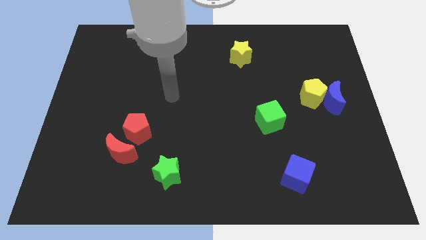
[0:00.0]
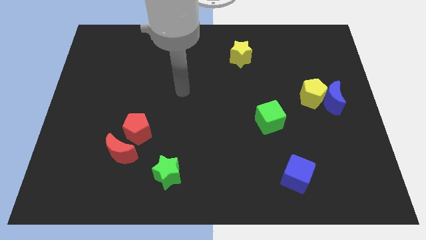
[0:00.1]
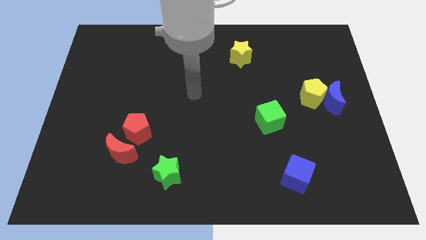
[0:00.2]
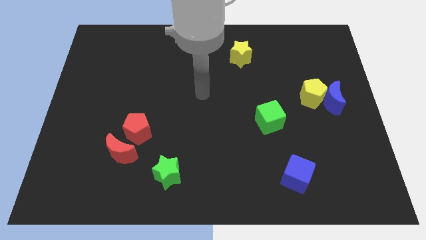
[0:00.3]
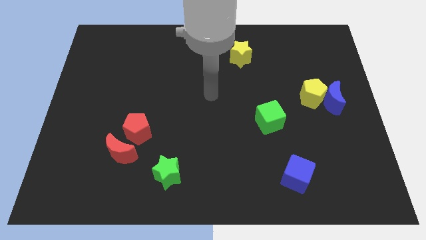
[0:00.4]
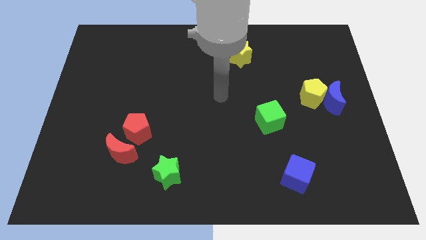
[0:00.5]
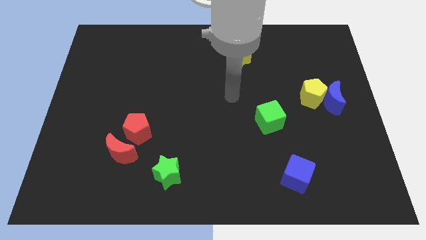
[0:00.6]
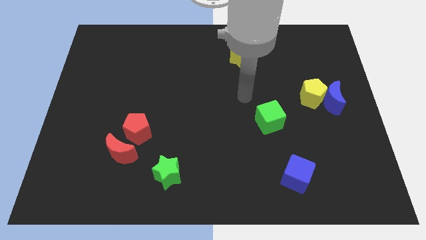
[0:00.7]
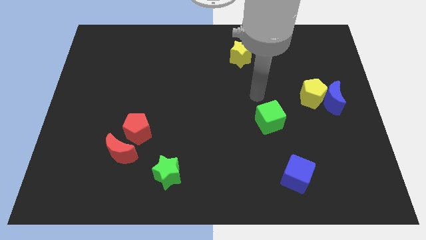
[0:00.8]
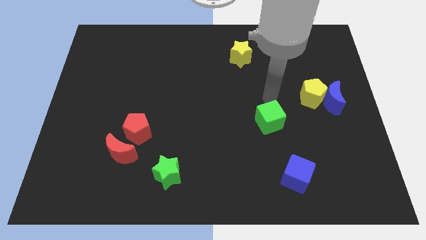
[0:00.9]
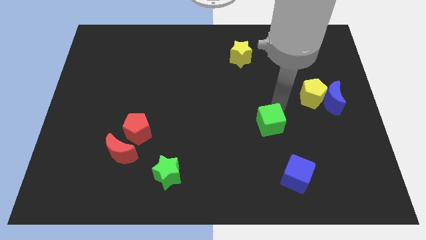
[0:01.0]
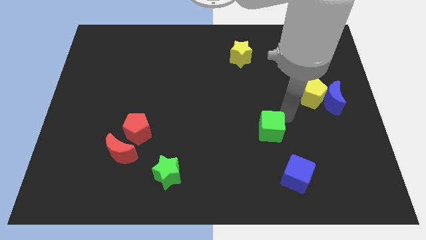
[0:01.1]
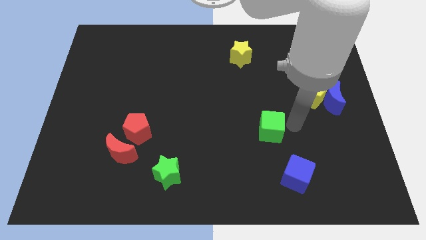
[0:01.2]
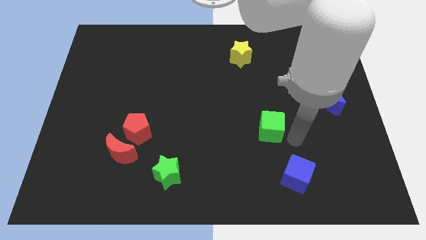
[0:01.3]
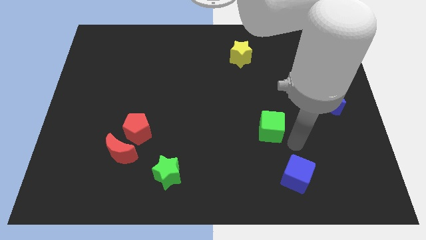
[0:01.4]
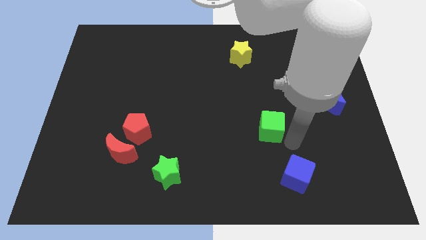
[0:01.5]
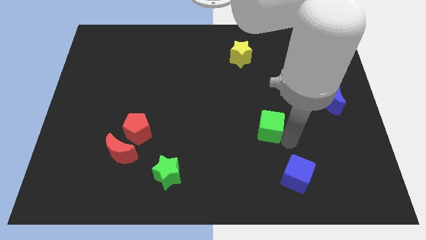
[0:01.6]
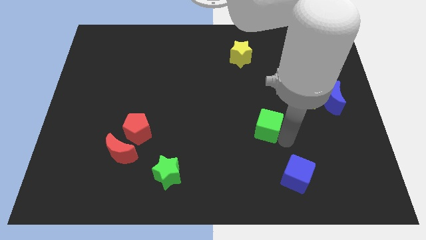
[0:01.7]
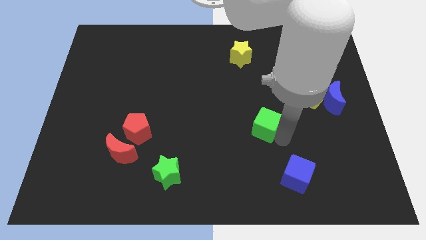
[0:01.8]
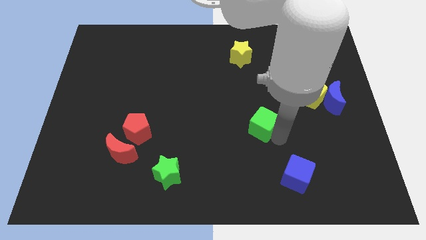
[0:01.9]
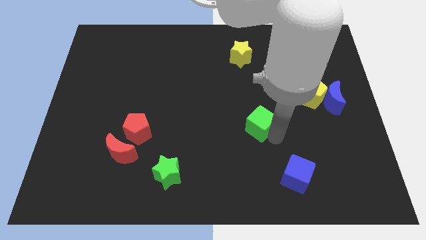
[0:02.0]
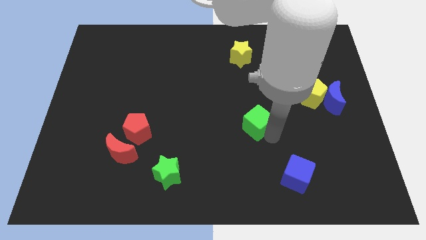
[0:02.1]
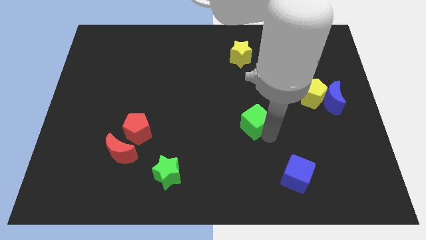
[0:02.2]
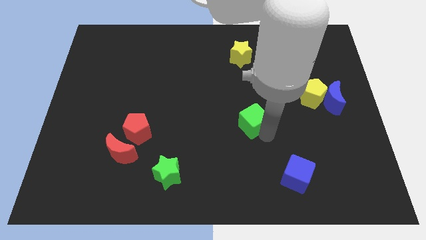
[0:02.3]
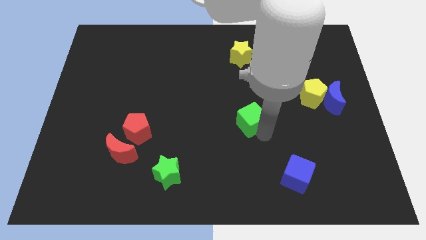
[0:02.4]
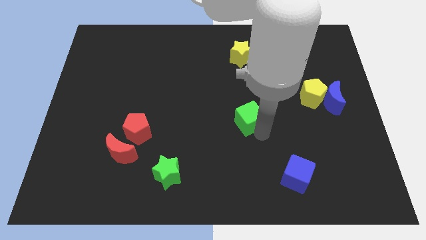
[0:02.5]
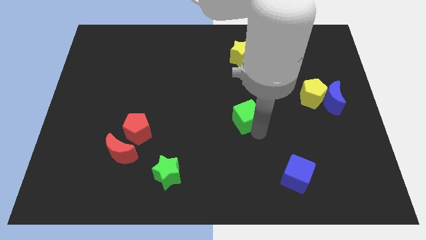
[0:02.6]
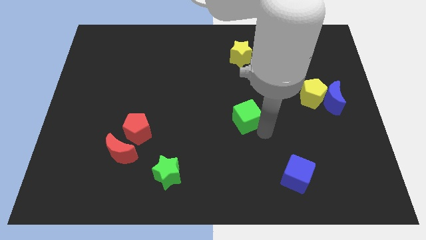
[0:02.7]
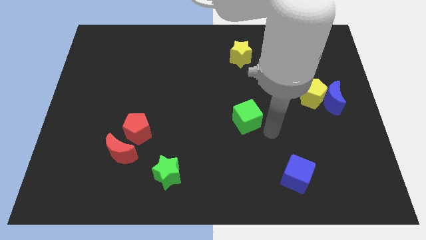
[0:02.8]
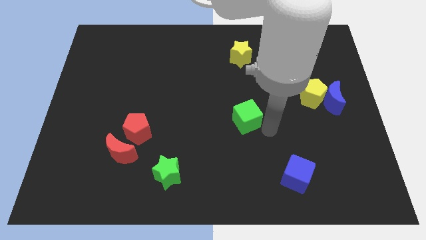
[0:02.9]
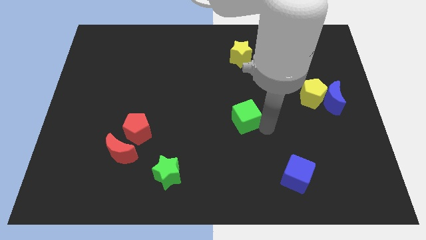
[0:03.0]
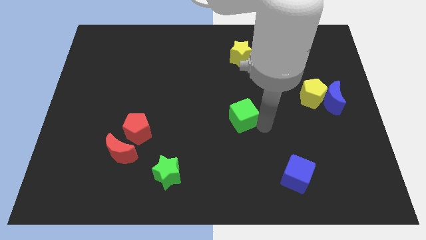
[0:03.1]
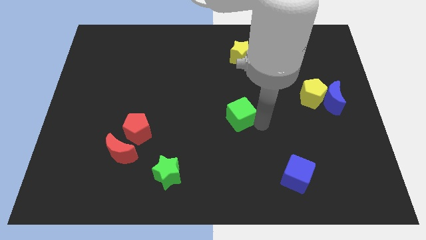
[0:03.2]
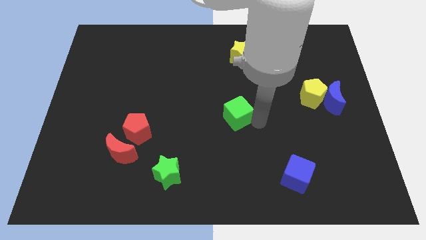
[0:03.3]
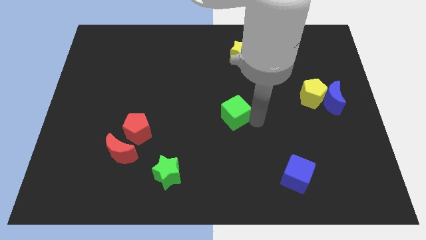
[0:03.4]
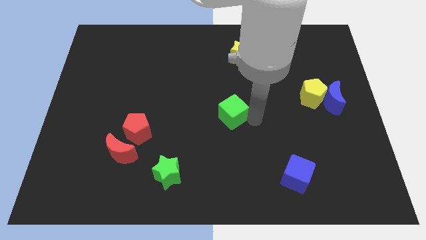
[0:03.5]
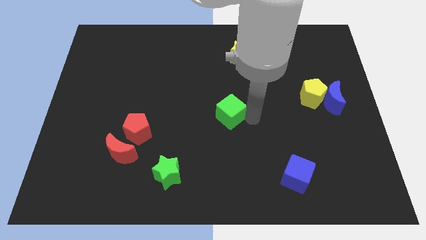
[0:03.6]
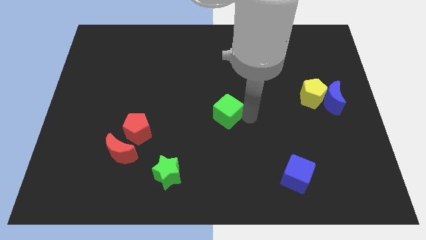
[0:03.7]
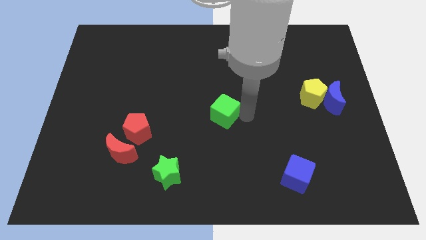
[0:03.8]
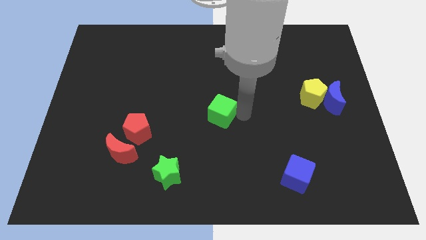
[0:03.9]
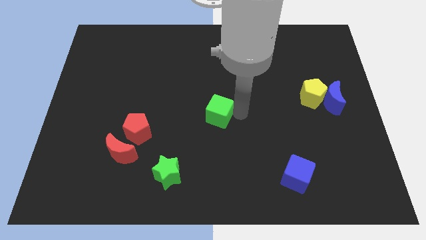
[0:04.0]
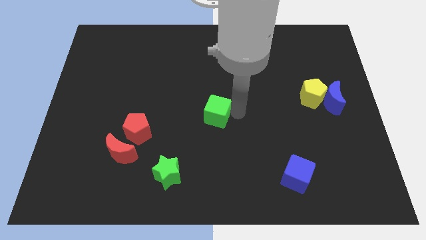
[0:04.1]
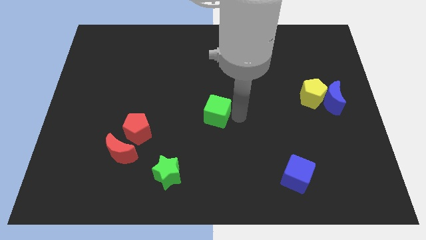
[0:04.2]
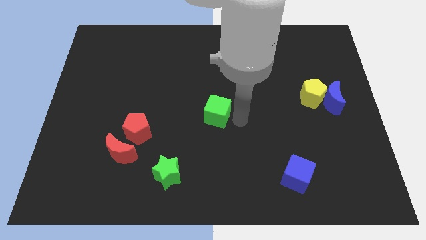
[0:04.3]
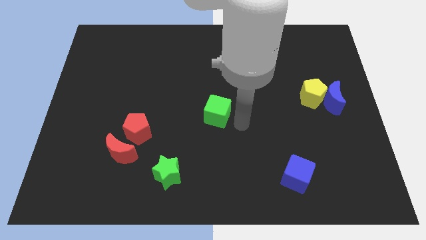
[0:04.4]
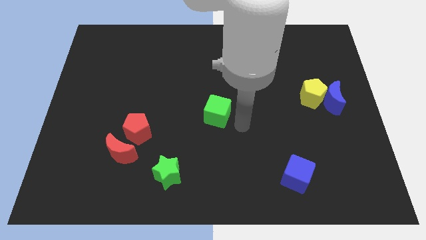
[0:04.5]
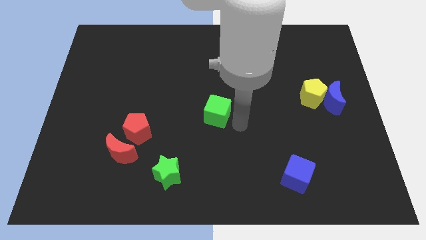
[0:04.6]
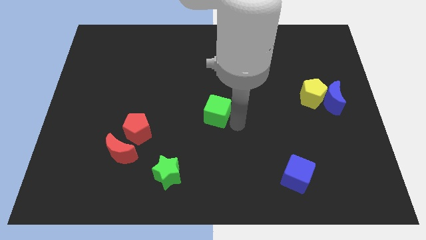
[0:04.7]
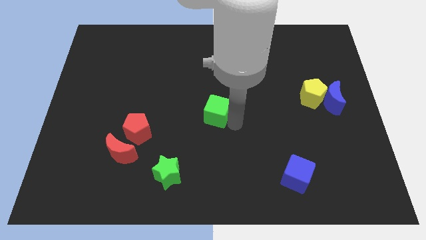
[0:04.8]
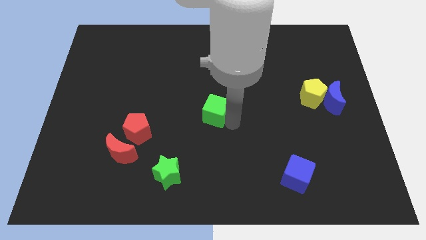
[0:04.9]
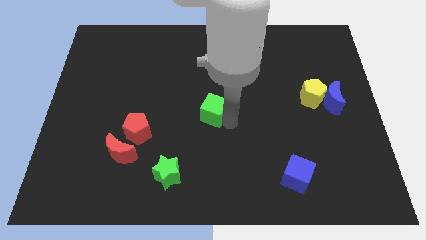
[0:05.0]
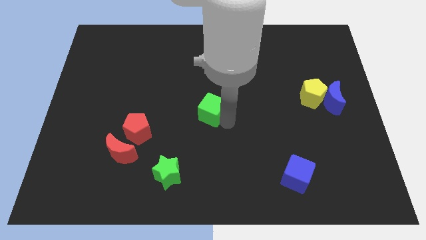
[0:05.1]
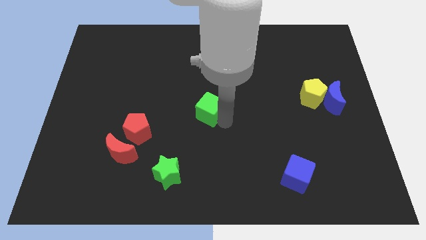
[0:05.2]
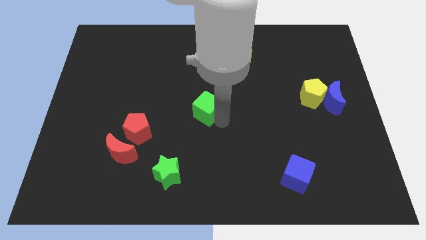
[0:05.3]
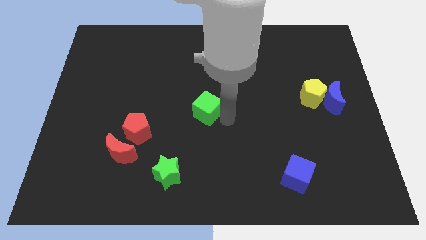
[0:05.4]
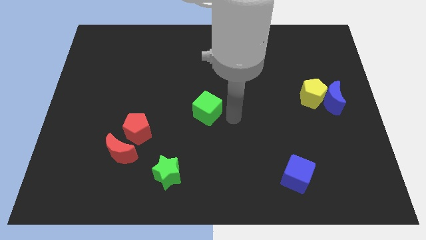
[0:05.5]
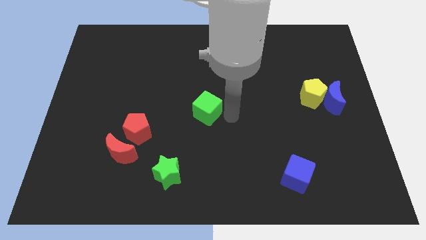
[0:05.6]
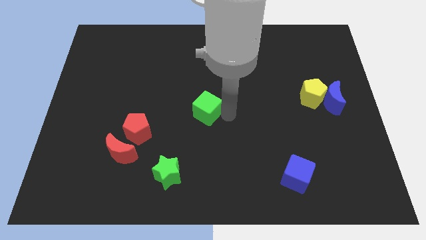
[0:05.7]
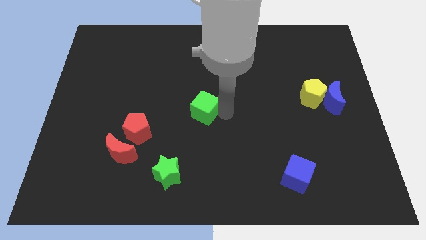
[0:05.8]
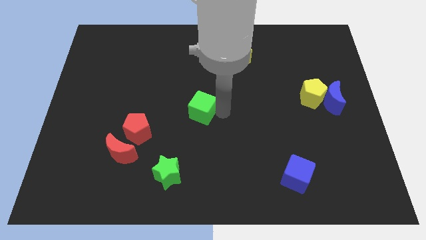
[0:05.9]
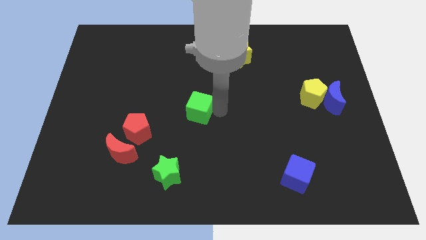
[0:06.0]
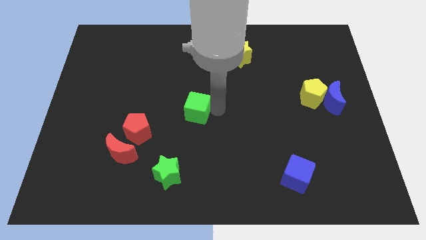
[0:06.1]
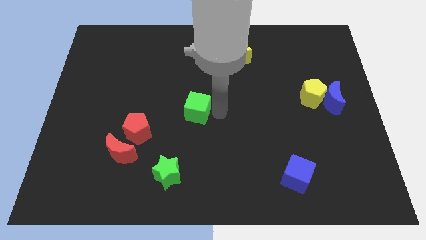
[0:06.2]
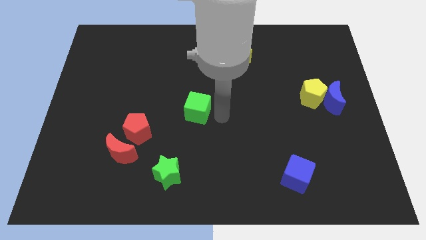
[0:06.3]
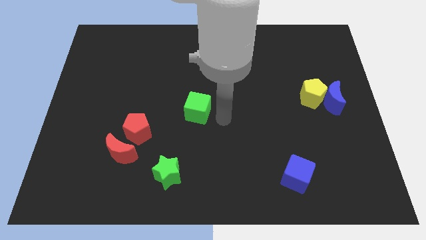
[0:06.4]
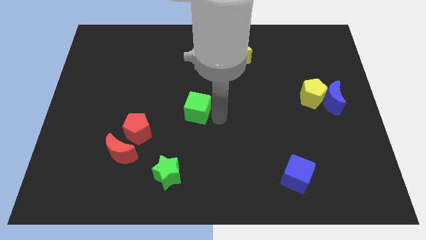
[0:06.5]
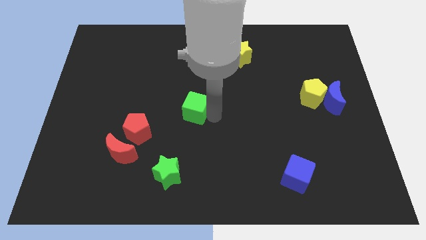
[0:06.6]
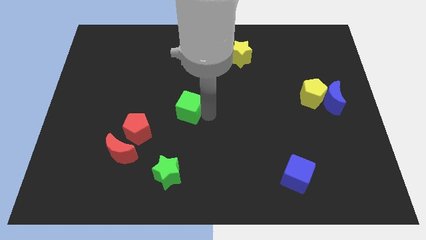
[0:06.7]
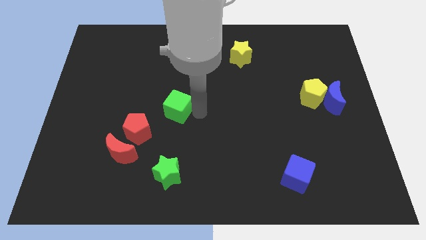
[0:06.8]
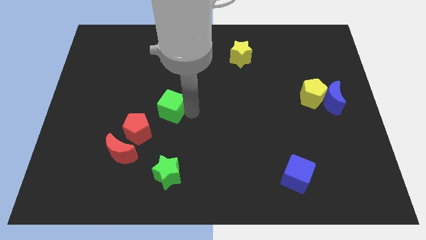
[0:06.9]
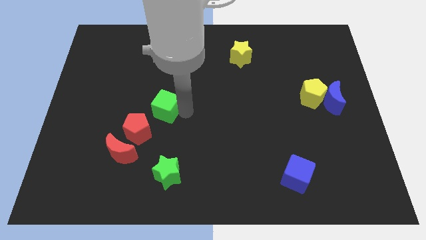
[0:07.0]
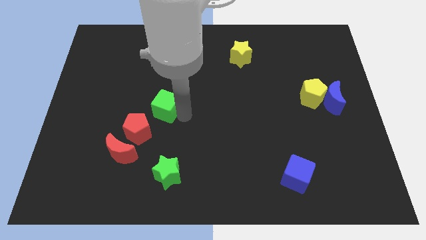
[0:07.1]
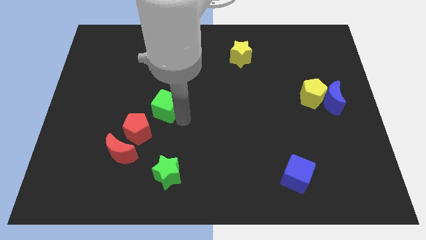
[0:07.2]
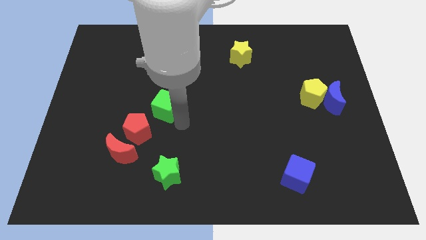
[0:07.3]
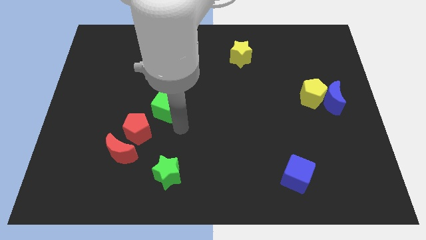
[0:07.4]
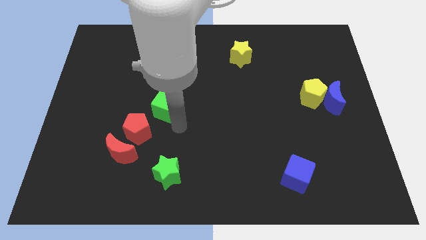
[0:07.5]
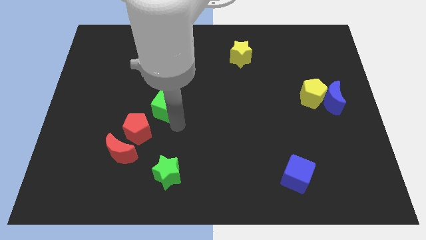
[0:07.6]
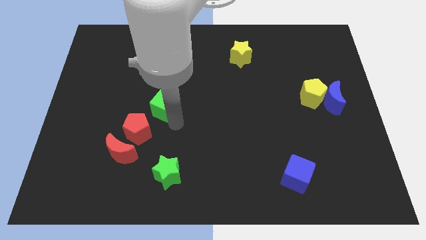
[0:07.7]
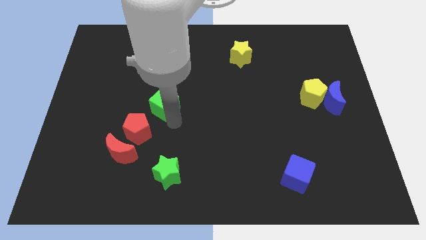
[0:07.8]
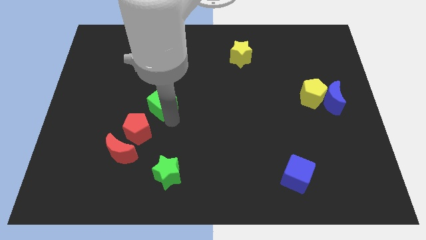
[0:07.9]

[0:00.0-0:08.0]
put the green cube above the red pentagon
